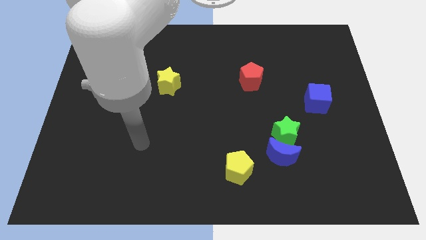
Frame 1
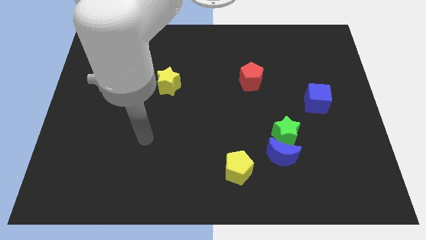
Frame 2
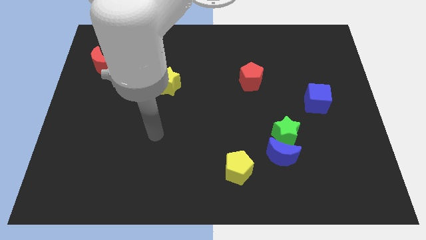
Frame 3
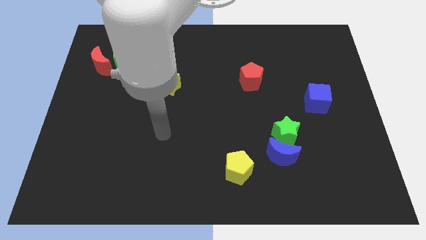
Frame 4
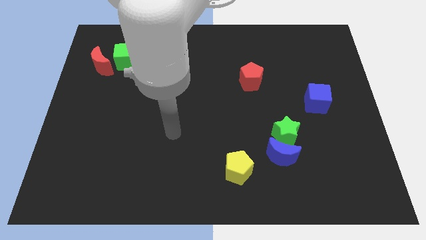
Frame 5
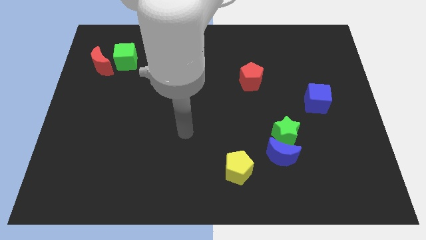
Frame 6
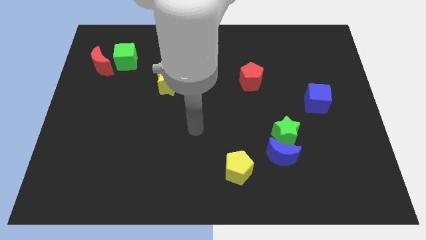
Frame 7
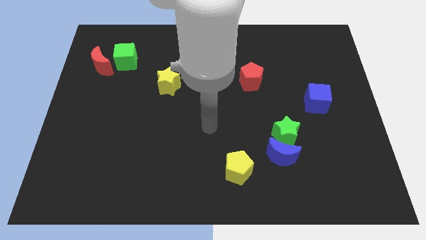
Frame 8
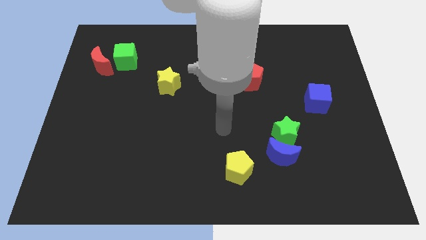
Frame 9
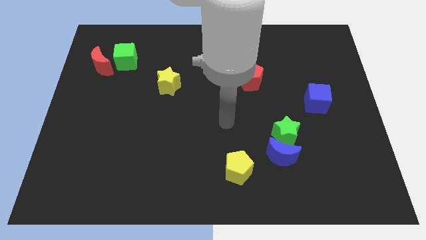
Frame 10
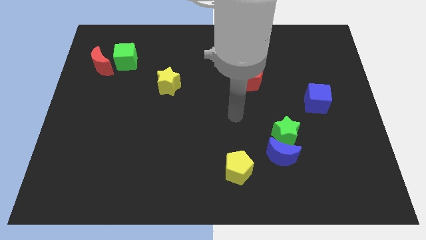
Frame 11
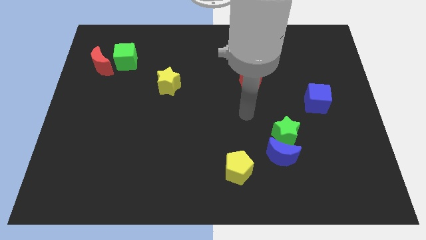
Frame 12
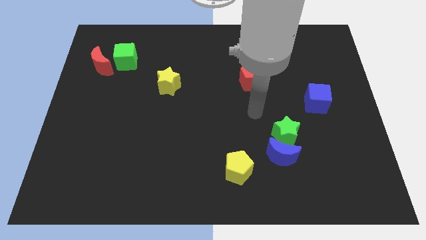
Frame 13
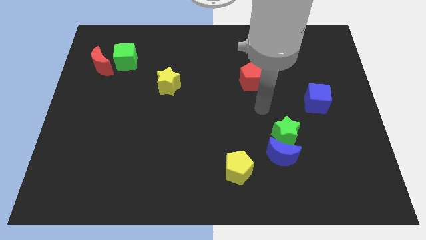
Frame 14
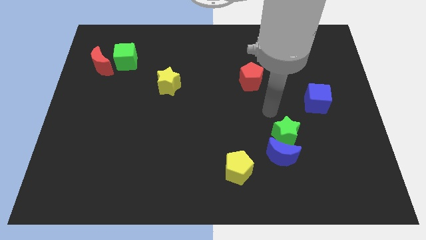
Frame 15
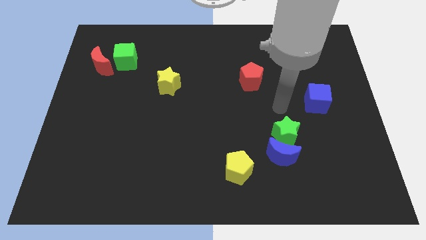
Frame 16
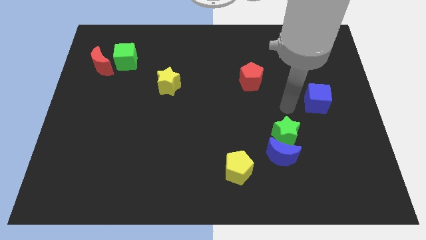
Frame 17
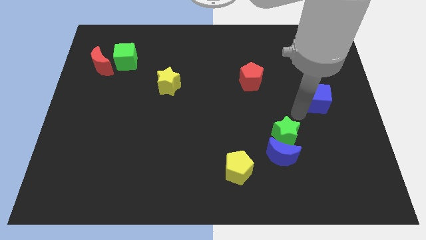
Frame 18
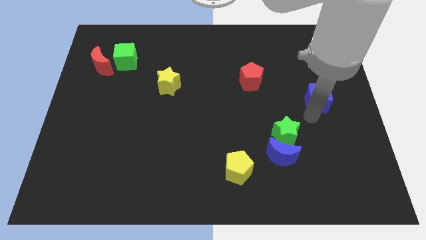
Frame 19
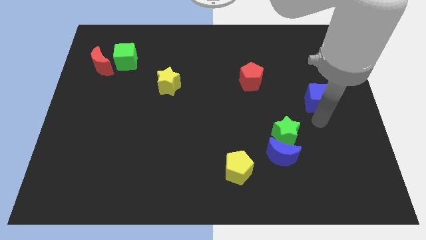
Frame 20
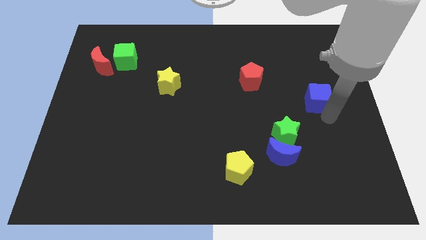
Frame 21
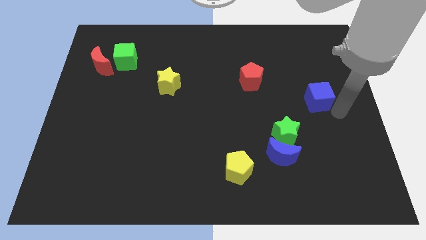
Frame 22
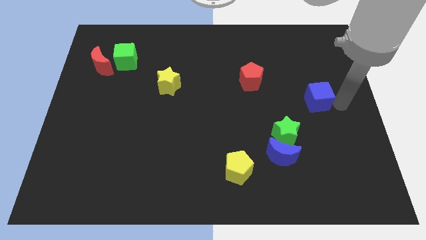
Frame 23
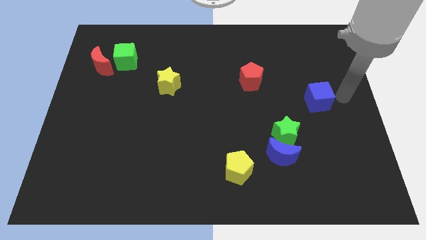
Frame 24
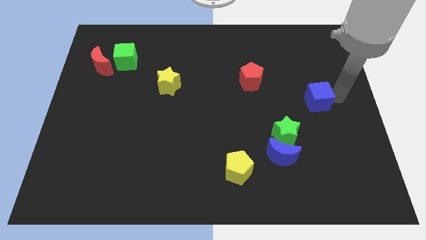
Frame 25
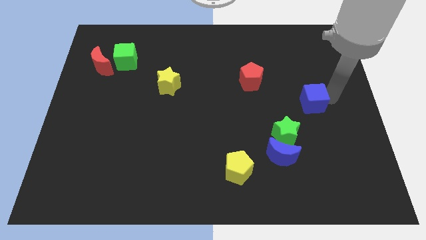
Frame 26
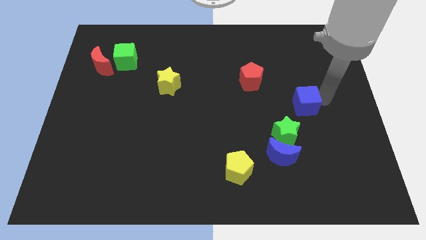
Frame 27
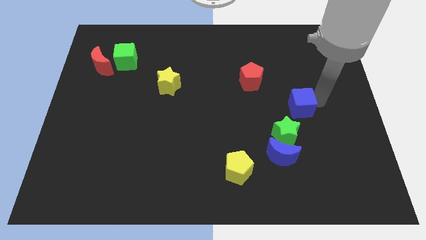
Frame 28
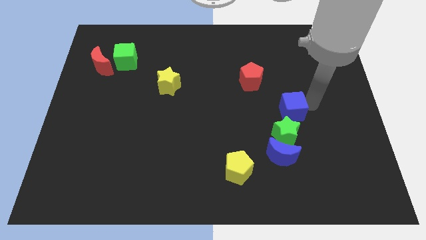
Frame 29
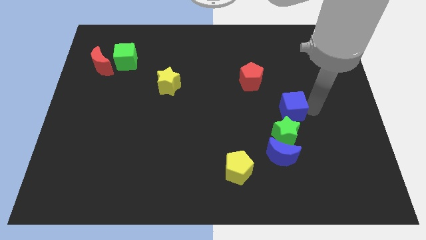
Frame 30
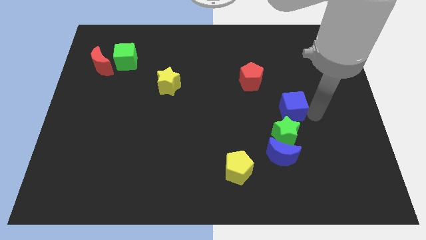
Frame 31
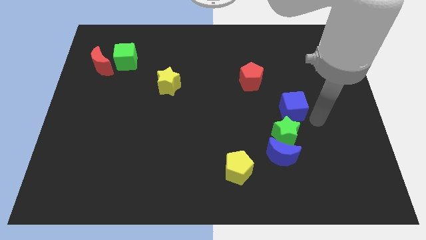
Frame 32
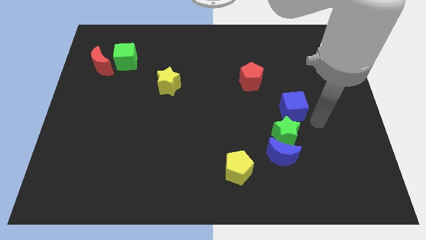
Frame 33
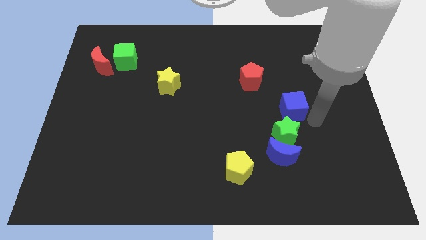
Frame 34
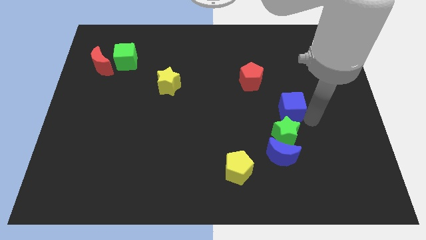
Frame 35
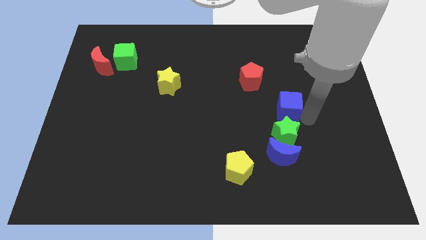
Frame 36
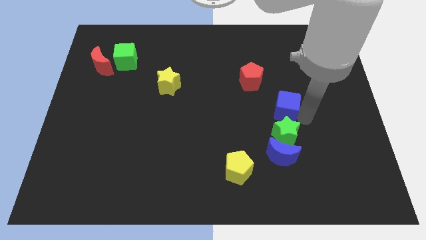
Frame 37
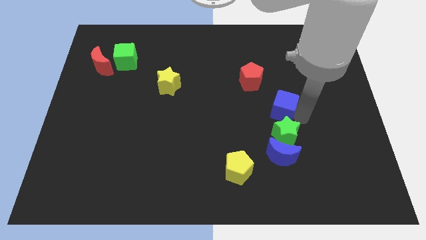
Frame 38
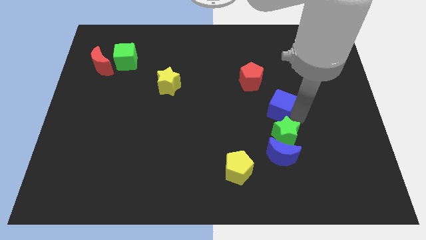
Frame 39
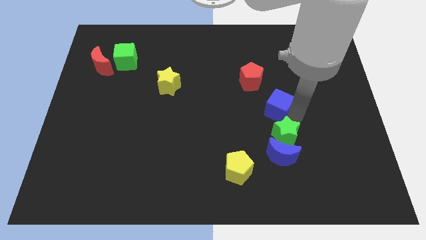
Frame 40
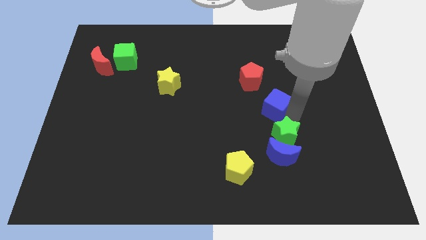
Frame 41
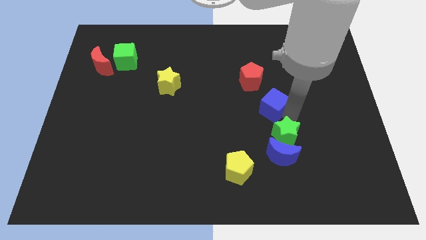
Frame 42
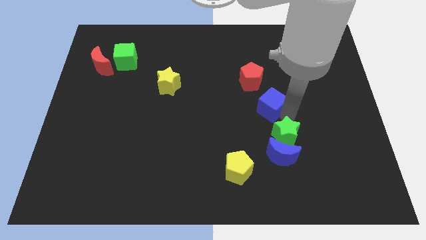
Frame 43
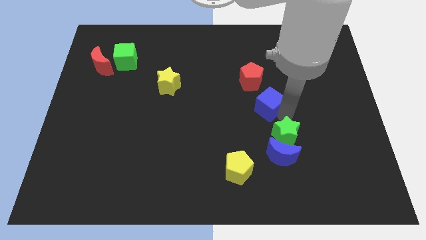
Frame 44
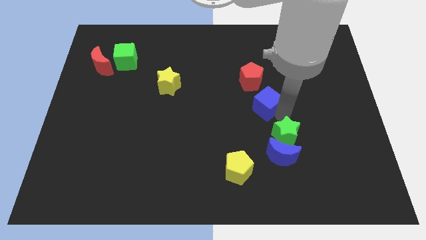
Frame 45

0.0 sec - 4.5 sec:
push the blue cube to the middle of the board

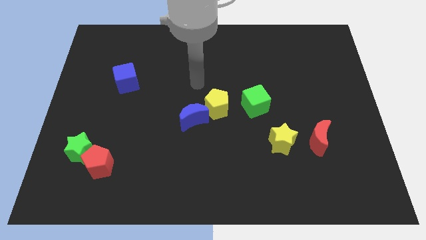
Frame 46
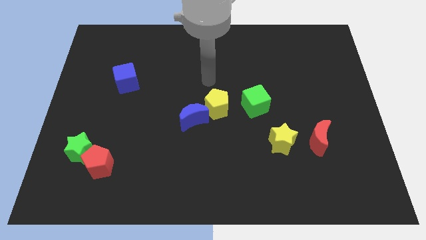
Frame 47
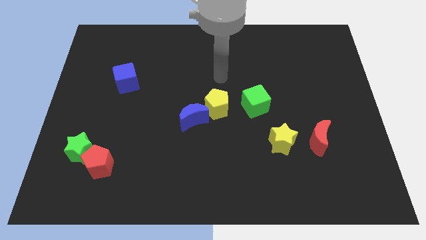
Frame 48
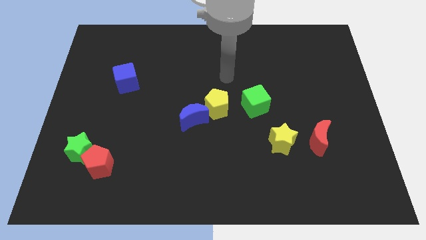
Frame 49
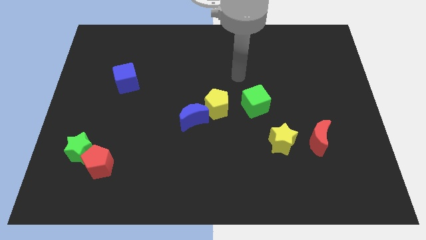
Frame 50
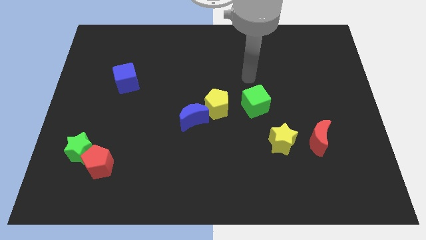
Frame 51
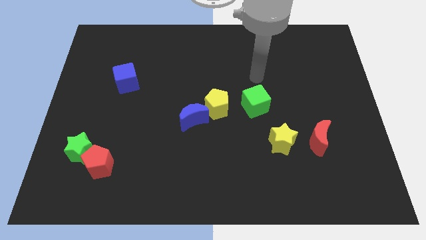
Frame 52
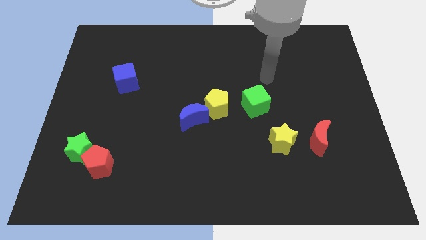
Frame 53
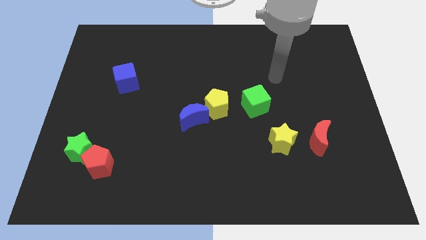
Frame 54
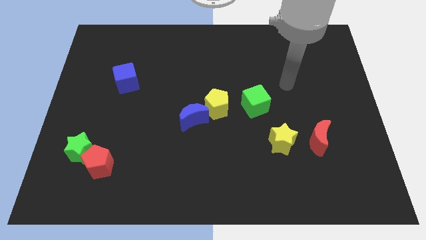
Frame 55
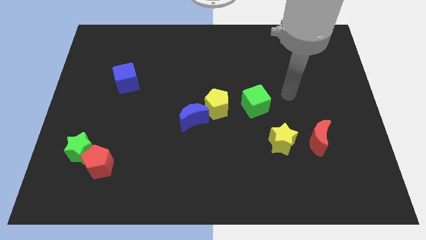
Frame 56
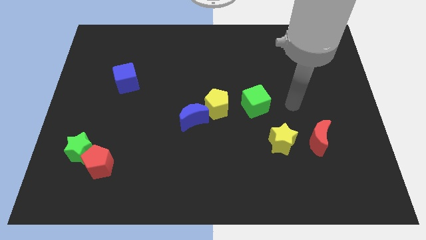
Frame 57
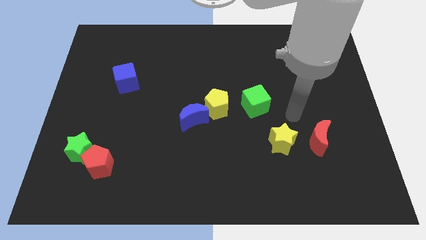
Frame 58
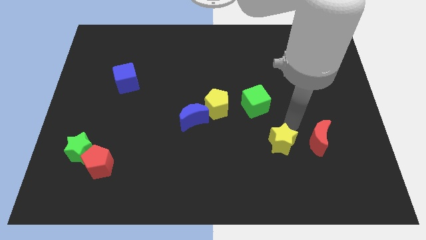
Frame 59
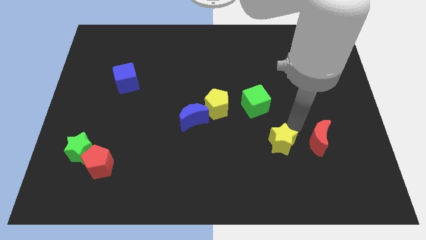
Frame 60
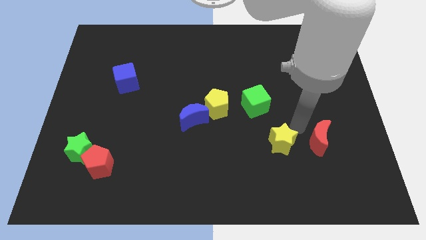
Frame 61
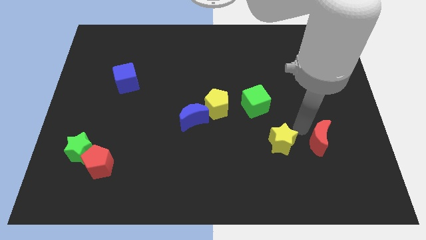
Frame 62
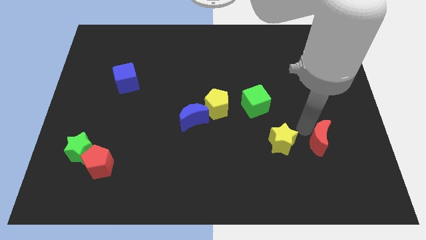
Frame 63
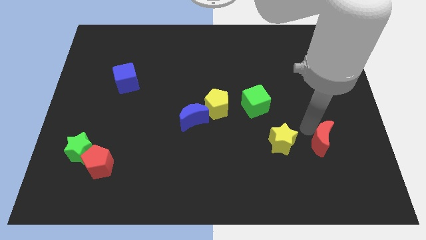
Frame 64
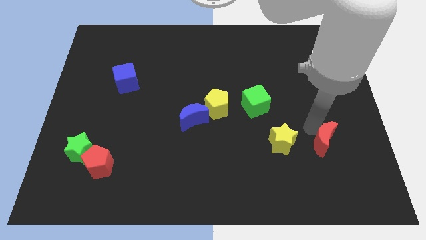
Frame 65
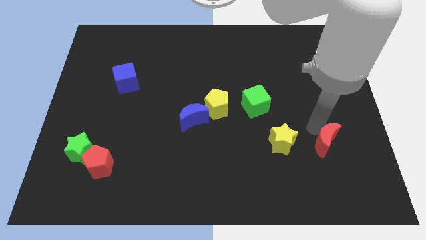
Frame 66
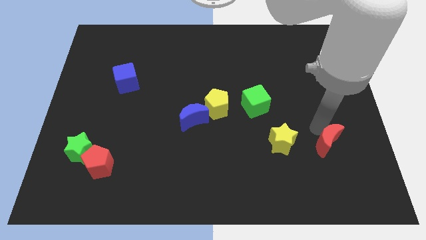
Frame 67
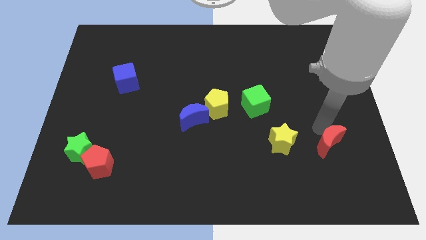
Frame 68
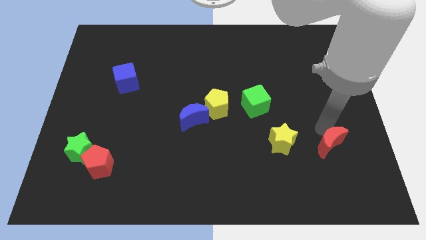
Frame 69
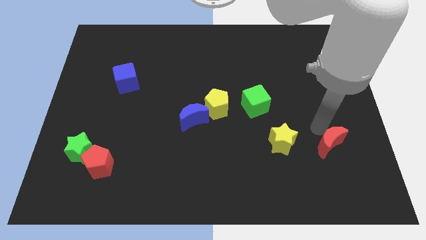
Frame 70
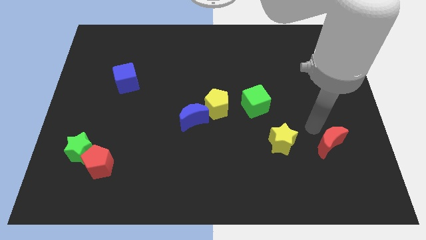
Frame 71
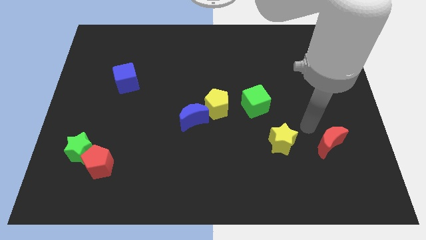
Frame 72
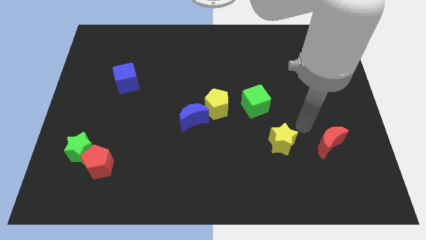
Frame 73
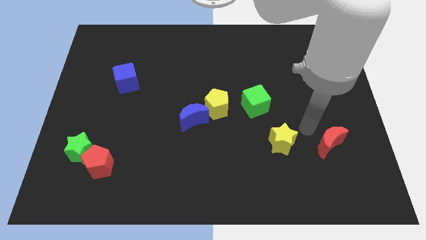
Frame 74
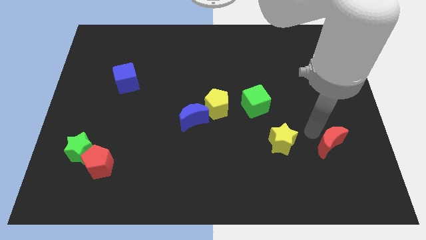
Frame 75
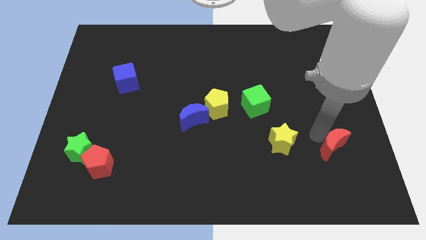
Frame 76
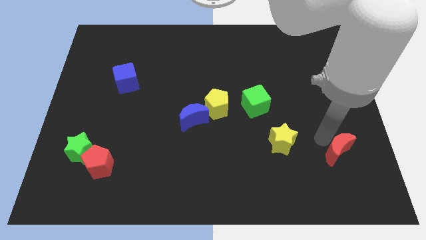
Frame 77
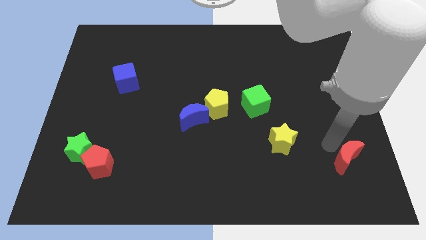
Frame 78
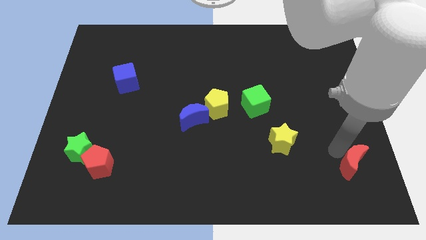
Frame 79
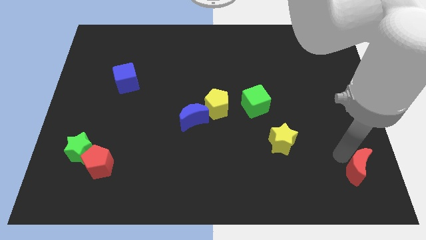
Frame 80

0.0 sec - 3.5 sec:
move the red moon to the lower right corner

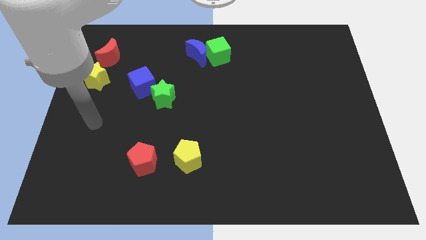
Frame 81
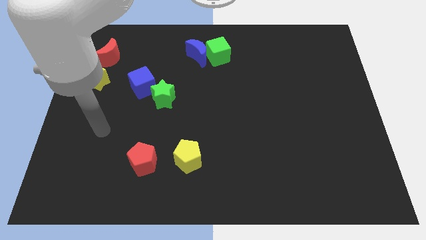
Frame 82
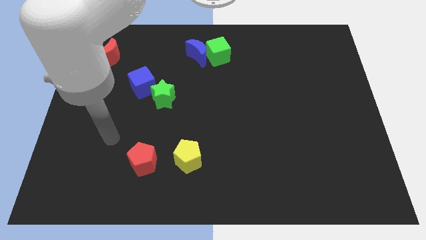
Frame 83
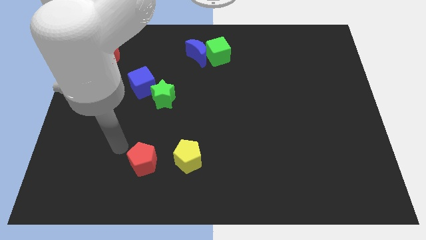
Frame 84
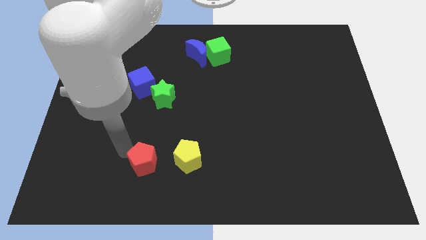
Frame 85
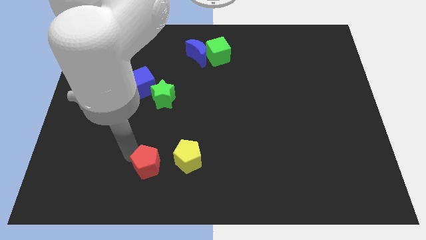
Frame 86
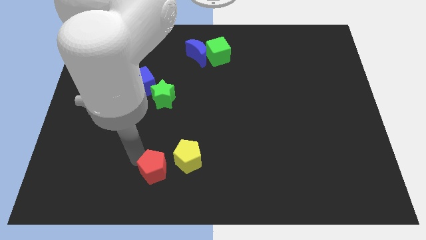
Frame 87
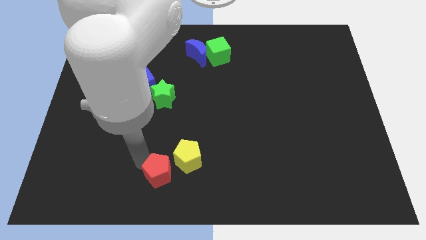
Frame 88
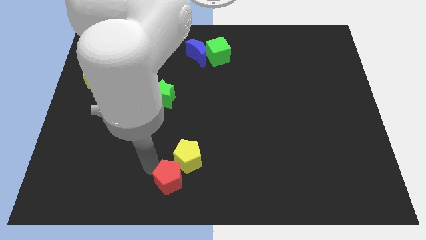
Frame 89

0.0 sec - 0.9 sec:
move the red pentagon to the bottom side
